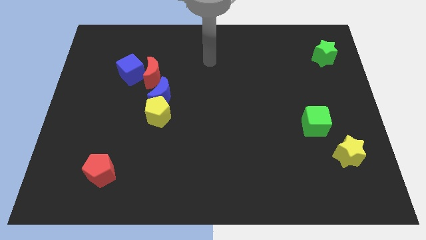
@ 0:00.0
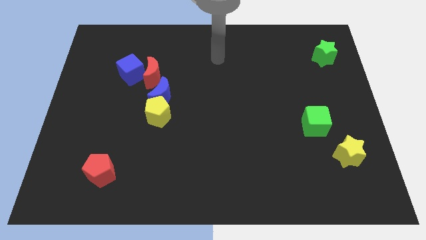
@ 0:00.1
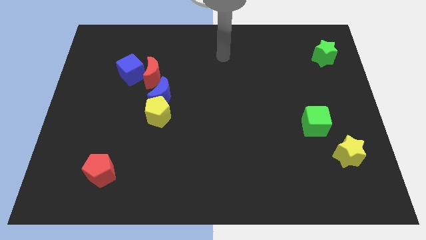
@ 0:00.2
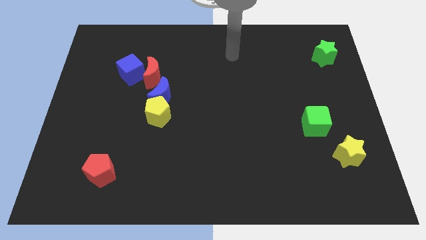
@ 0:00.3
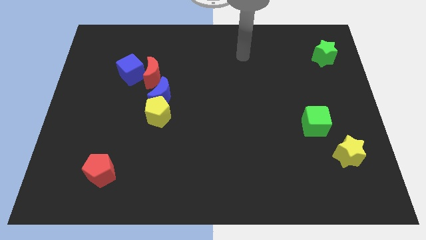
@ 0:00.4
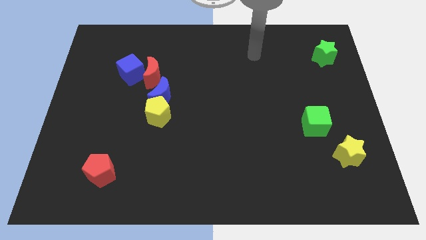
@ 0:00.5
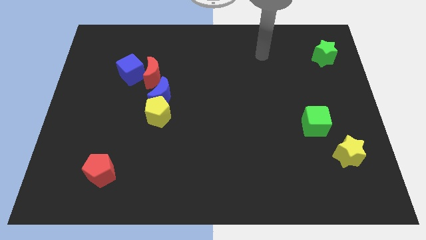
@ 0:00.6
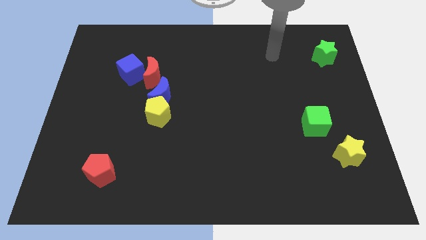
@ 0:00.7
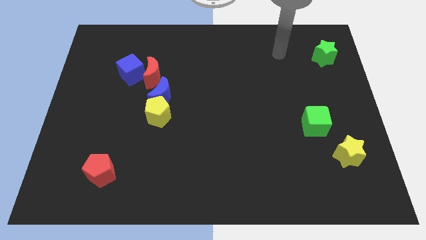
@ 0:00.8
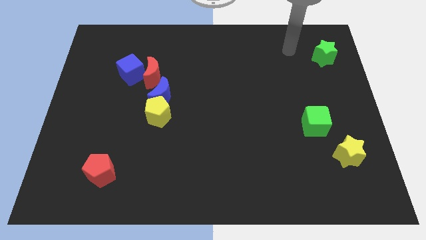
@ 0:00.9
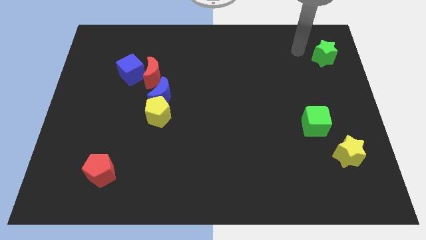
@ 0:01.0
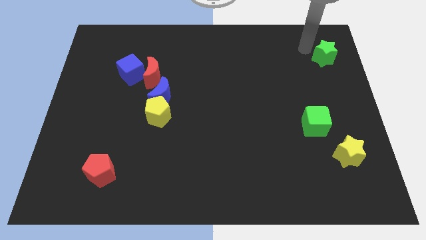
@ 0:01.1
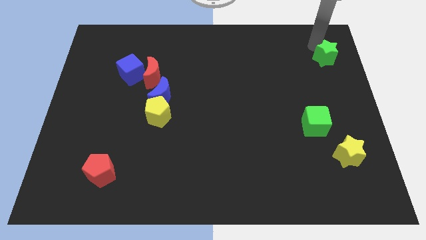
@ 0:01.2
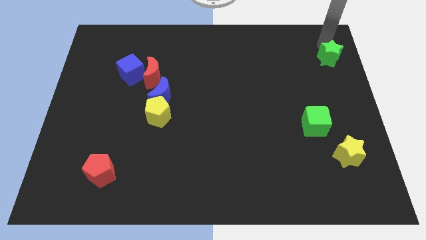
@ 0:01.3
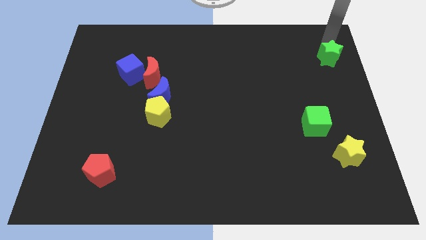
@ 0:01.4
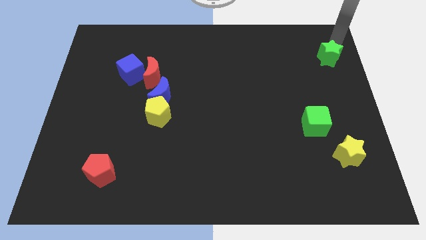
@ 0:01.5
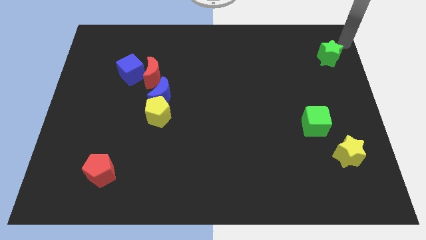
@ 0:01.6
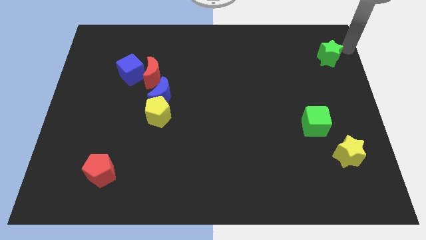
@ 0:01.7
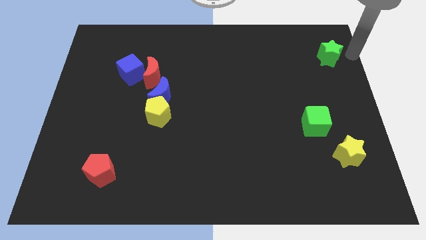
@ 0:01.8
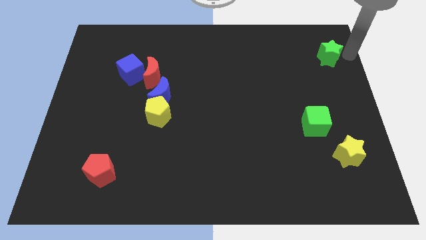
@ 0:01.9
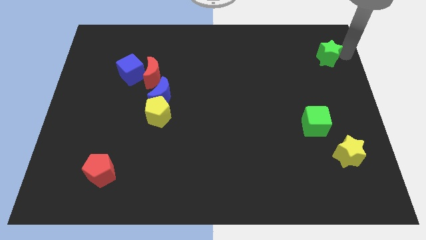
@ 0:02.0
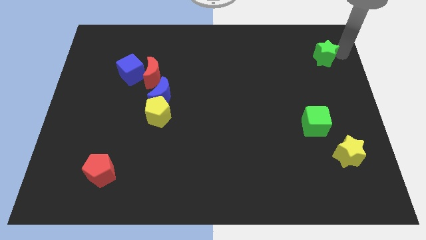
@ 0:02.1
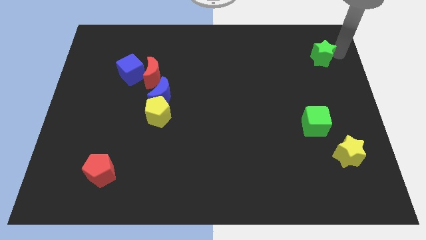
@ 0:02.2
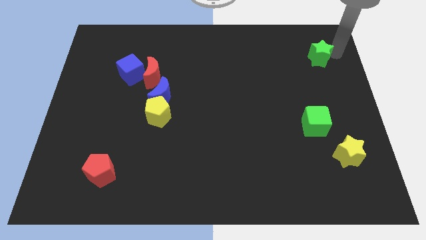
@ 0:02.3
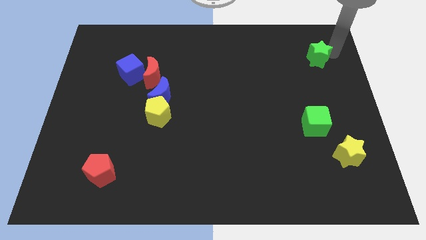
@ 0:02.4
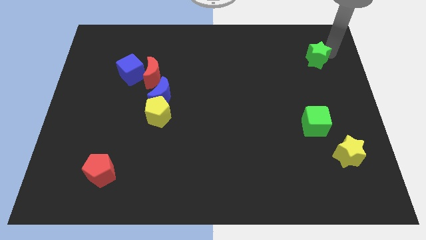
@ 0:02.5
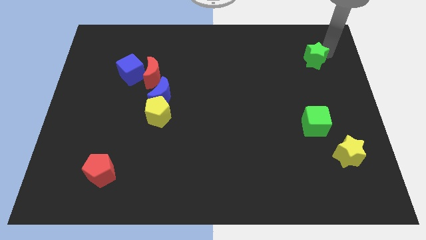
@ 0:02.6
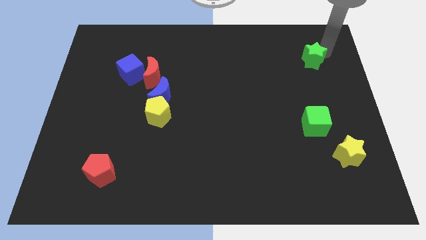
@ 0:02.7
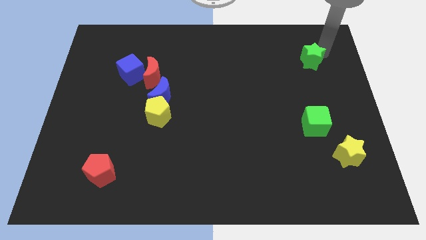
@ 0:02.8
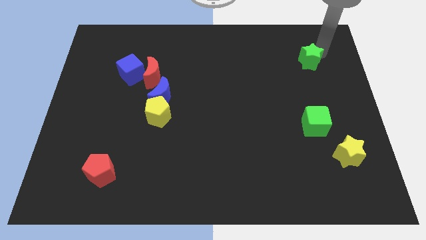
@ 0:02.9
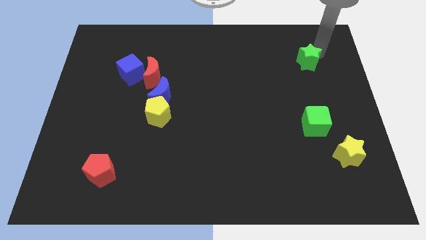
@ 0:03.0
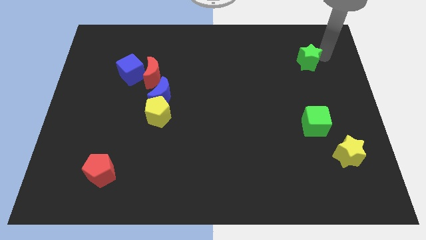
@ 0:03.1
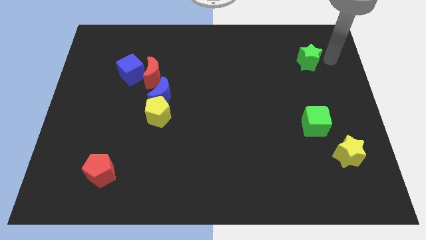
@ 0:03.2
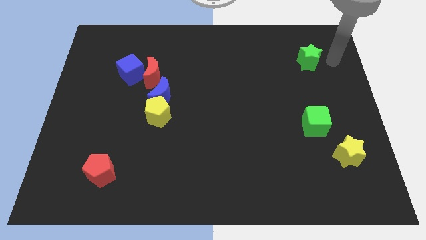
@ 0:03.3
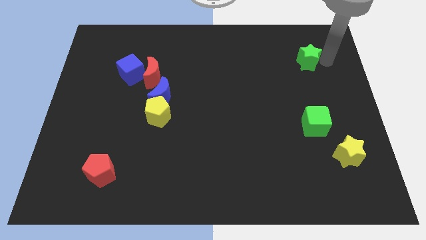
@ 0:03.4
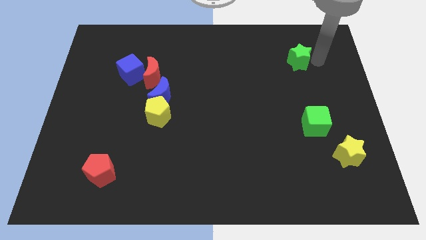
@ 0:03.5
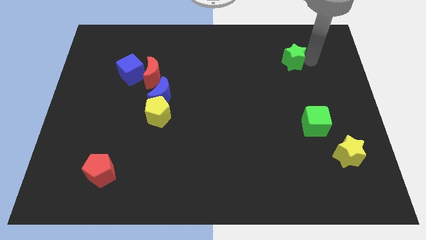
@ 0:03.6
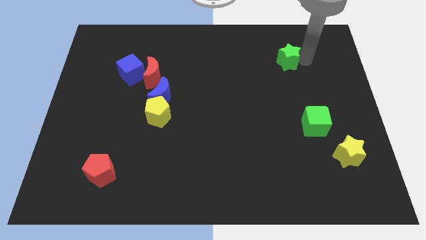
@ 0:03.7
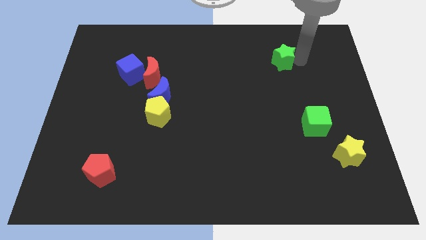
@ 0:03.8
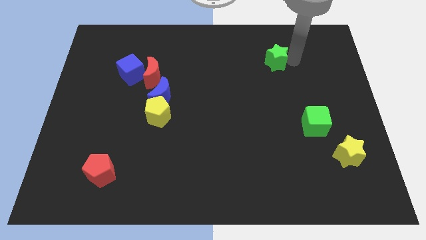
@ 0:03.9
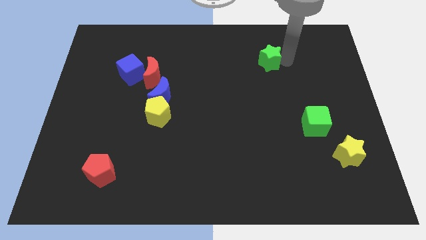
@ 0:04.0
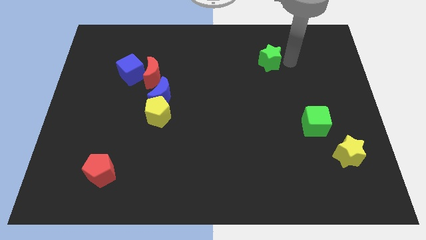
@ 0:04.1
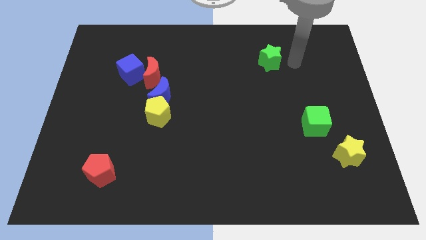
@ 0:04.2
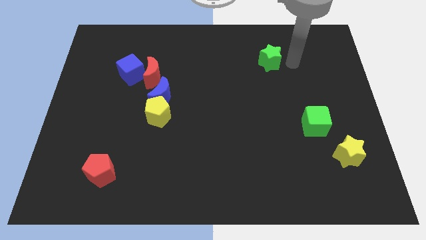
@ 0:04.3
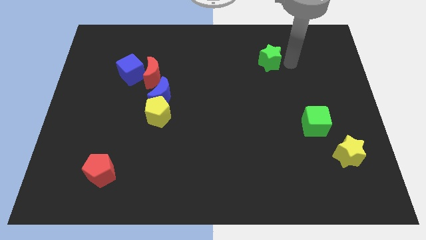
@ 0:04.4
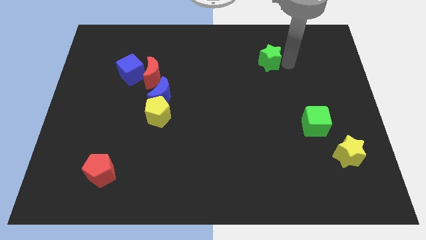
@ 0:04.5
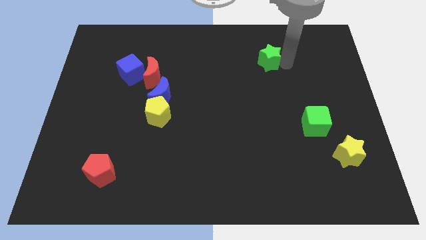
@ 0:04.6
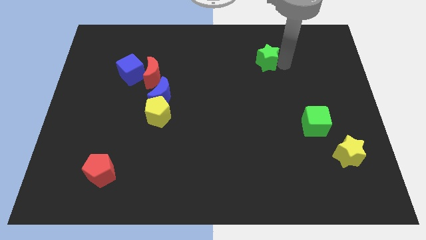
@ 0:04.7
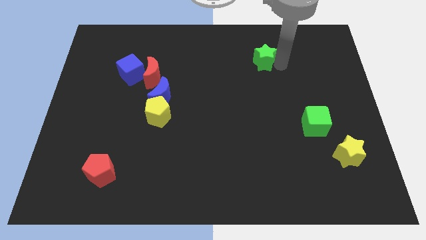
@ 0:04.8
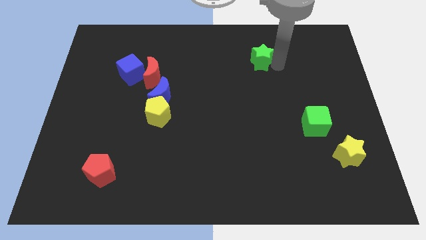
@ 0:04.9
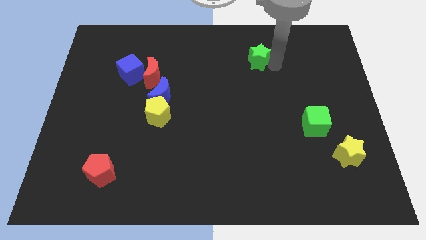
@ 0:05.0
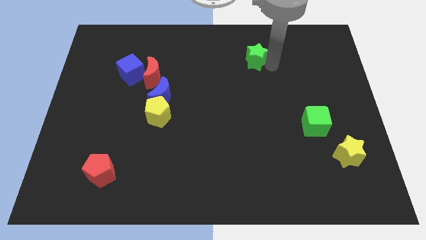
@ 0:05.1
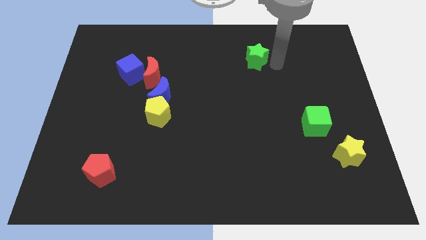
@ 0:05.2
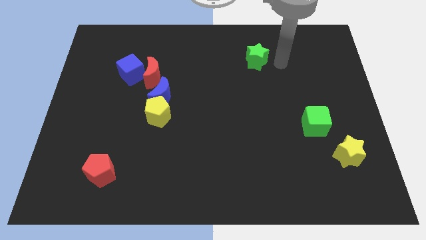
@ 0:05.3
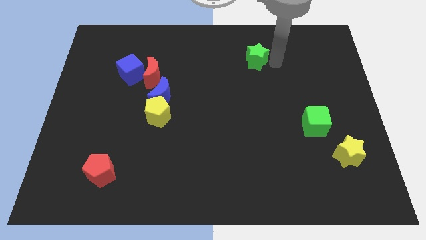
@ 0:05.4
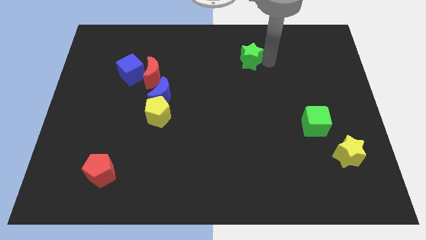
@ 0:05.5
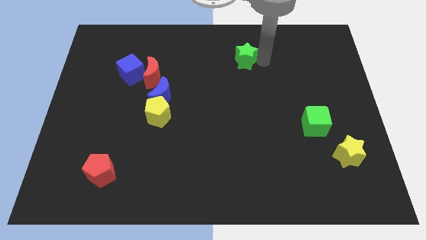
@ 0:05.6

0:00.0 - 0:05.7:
push the green star left

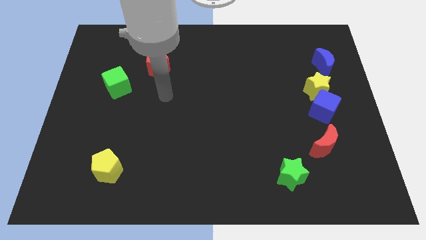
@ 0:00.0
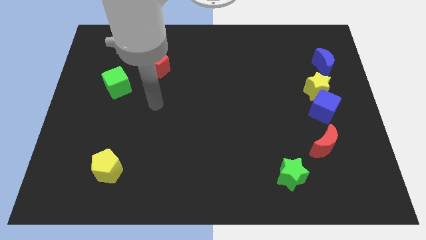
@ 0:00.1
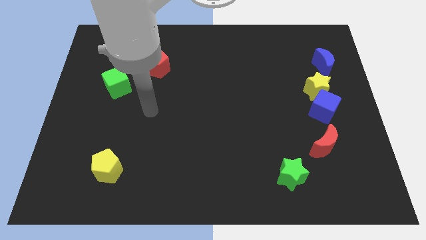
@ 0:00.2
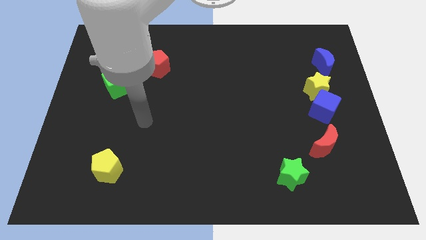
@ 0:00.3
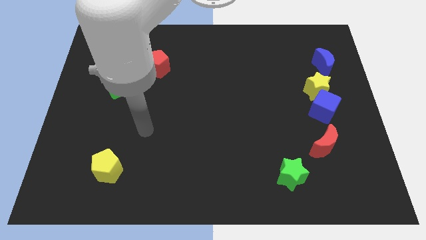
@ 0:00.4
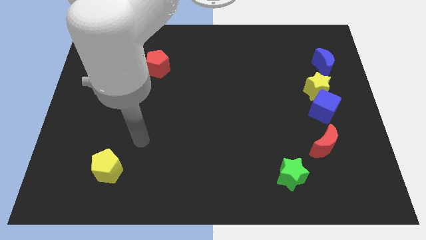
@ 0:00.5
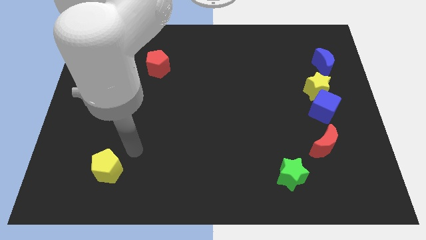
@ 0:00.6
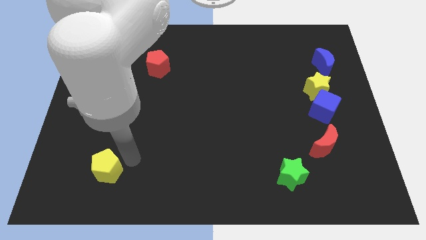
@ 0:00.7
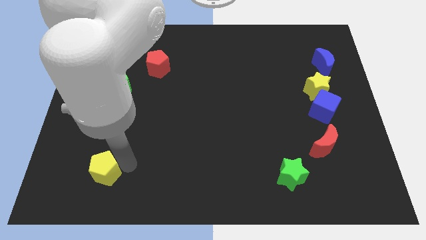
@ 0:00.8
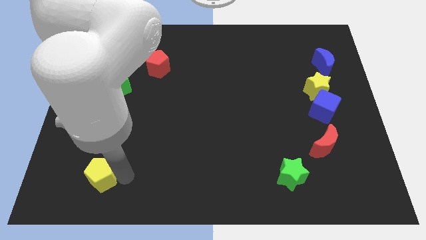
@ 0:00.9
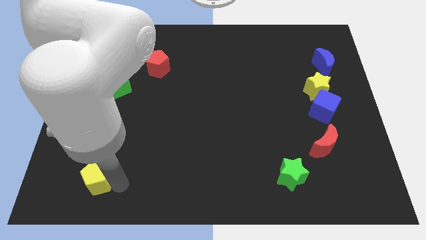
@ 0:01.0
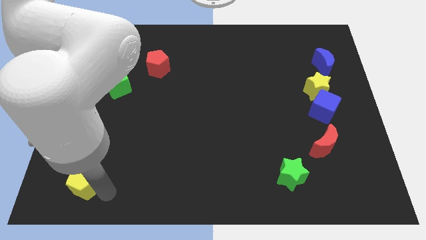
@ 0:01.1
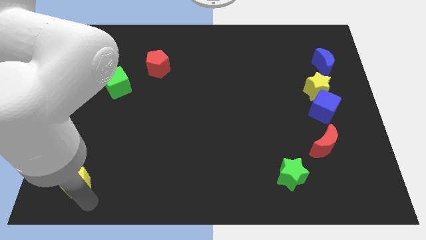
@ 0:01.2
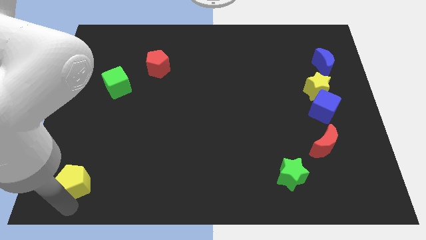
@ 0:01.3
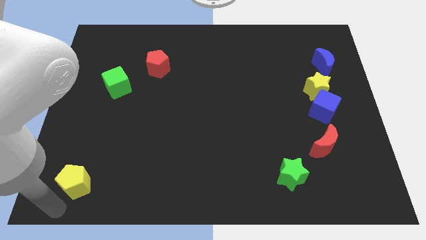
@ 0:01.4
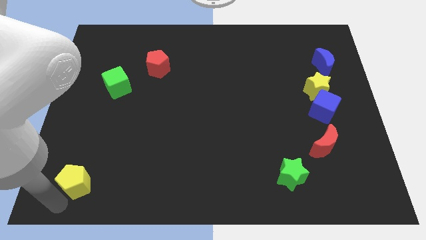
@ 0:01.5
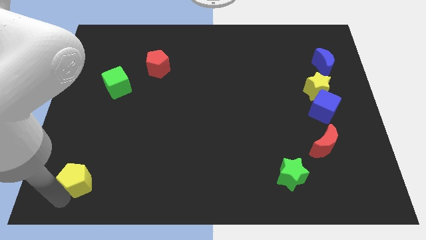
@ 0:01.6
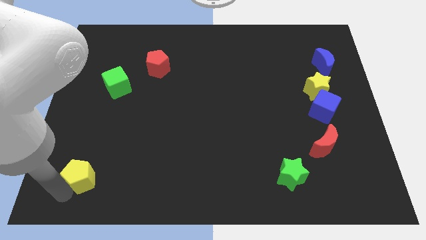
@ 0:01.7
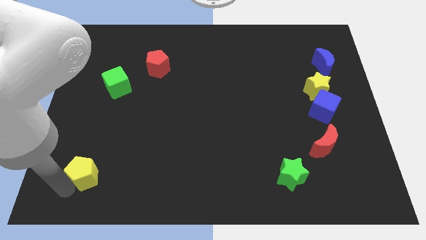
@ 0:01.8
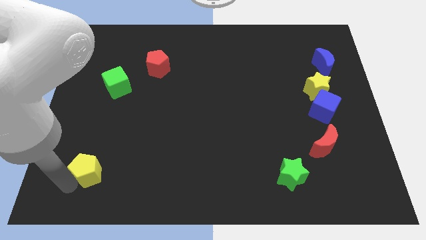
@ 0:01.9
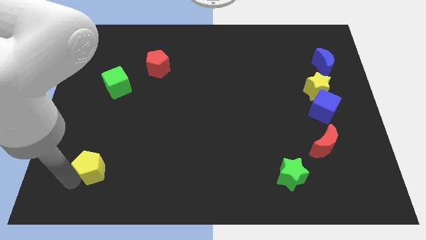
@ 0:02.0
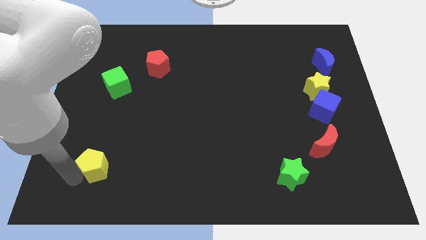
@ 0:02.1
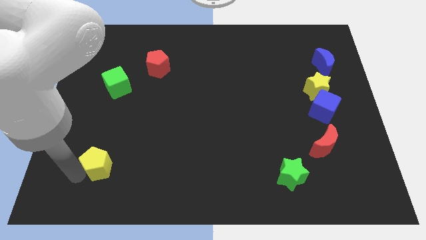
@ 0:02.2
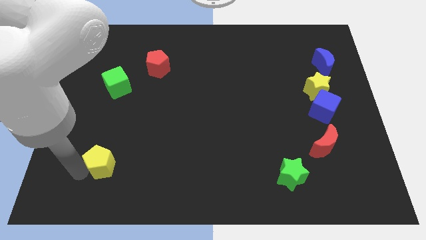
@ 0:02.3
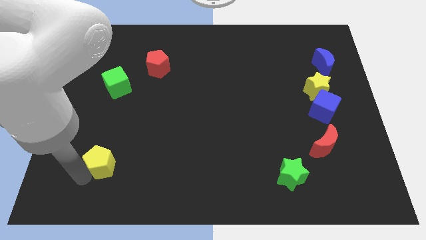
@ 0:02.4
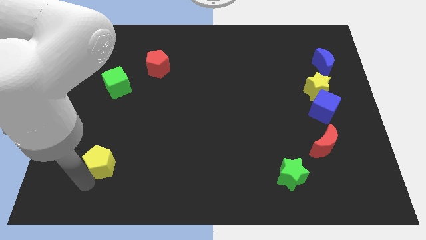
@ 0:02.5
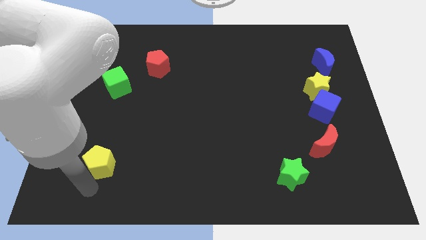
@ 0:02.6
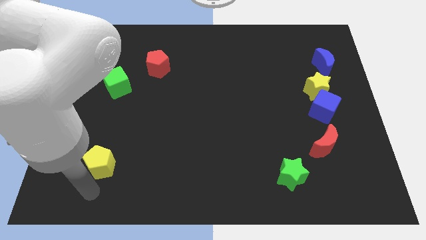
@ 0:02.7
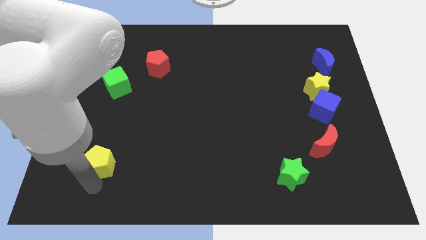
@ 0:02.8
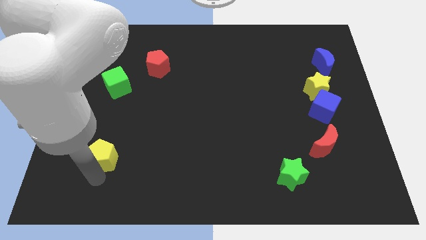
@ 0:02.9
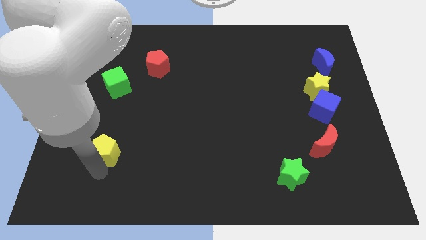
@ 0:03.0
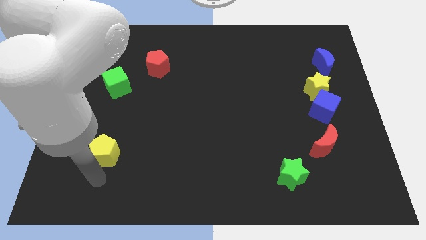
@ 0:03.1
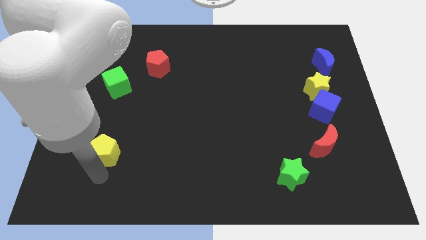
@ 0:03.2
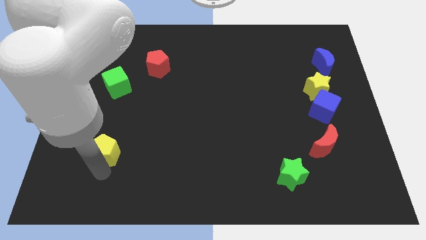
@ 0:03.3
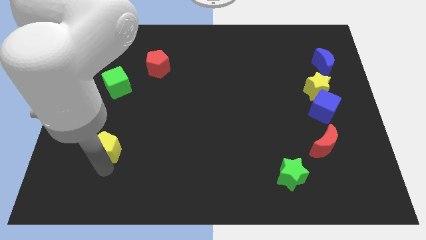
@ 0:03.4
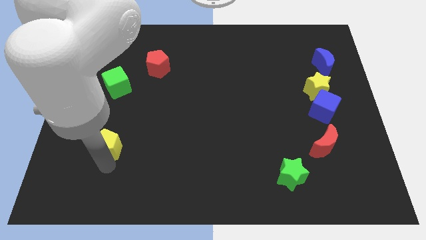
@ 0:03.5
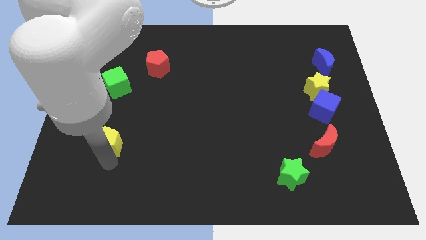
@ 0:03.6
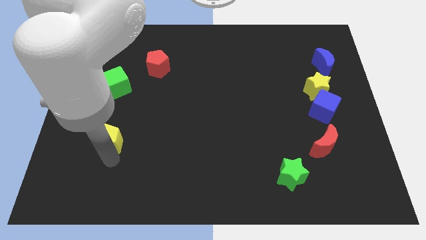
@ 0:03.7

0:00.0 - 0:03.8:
push the yellow pentagon a little upwards
